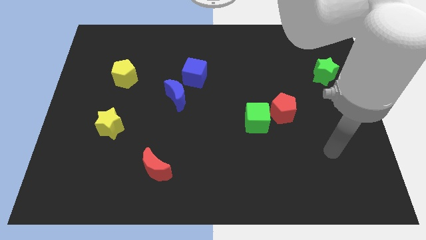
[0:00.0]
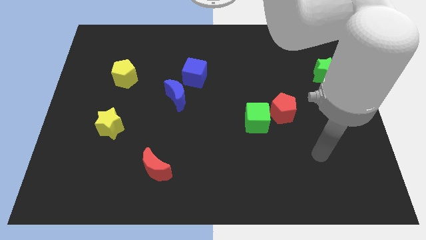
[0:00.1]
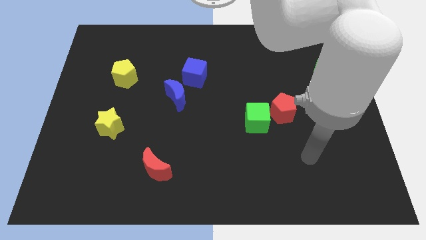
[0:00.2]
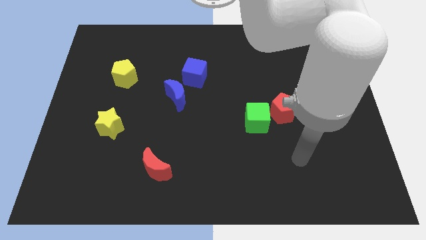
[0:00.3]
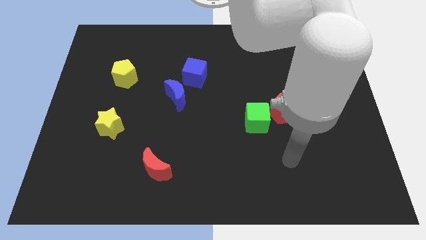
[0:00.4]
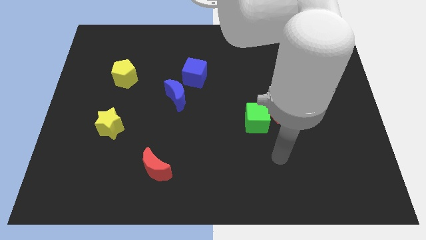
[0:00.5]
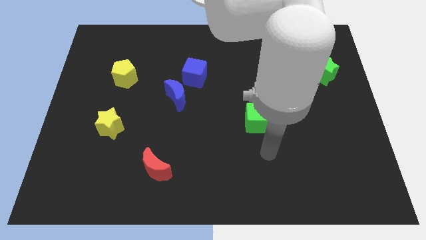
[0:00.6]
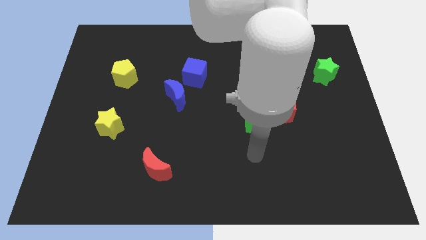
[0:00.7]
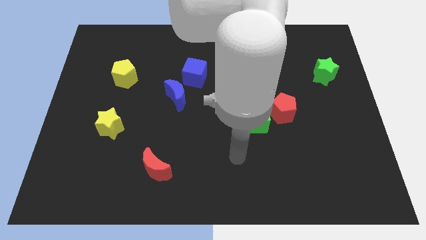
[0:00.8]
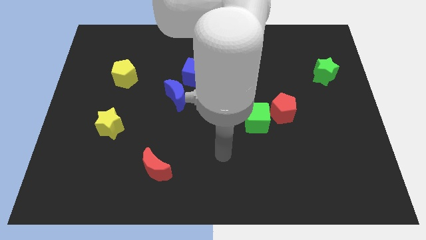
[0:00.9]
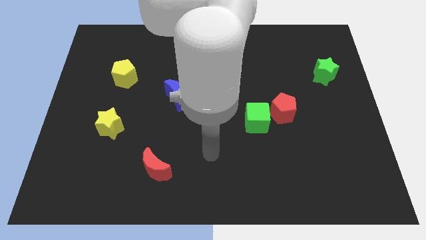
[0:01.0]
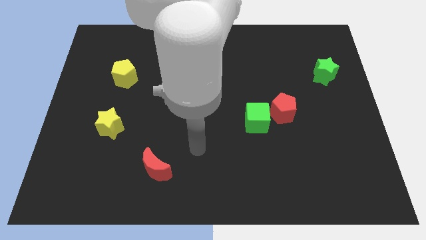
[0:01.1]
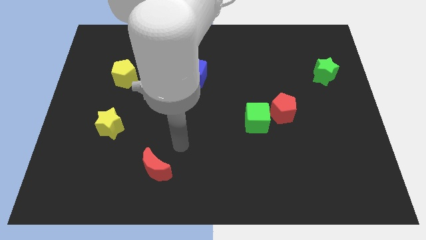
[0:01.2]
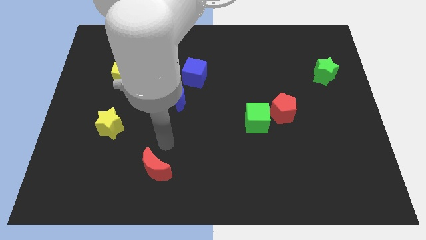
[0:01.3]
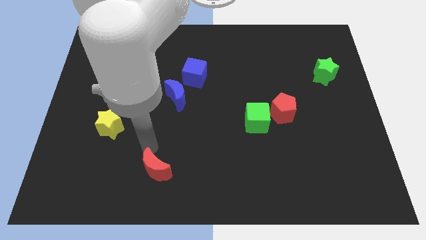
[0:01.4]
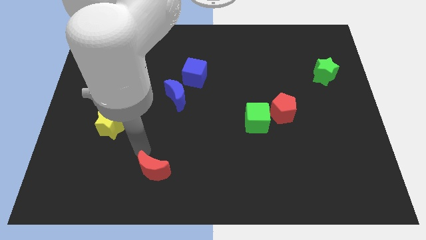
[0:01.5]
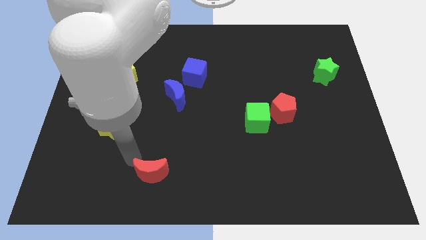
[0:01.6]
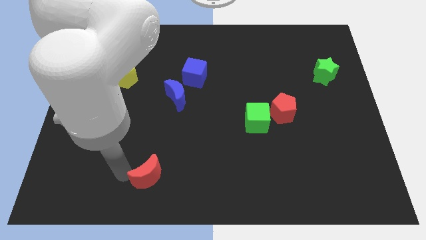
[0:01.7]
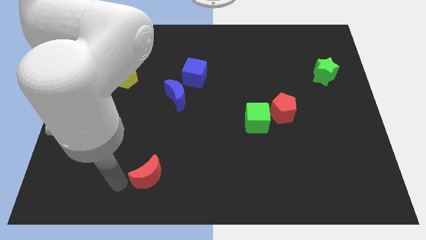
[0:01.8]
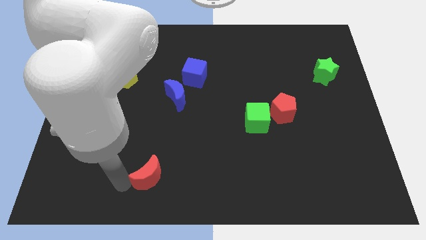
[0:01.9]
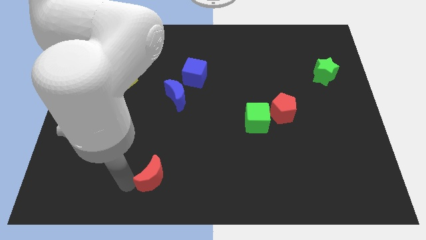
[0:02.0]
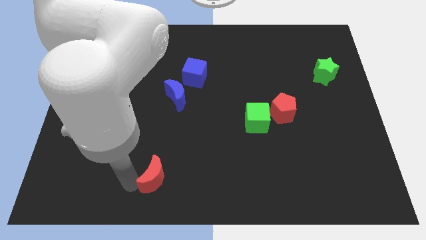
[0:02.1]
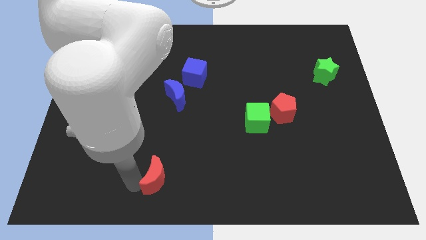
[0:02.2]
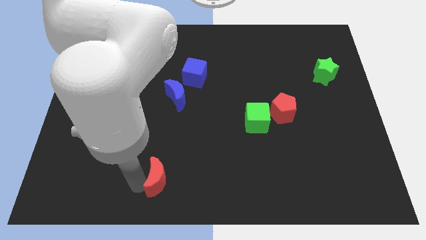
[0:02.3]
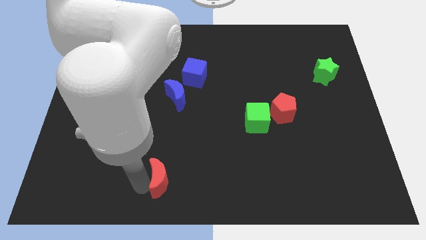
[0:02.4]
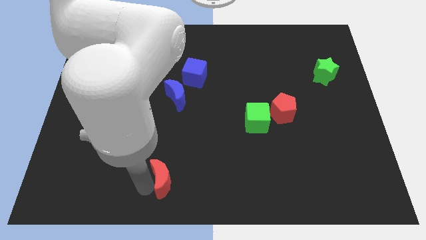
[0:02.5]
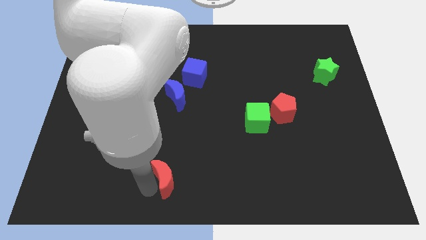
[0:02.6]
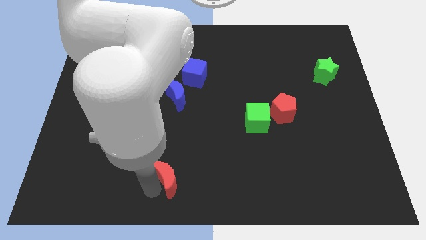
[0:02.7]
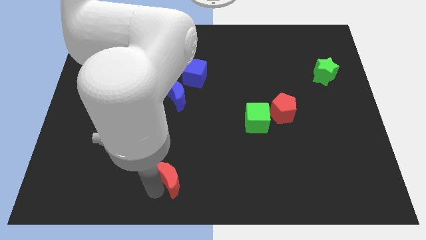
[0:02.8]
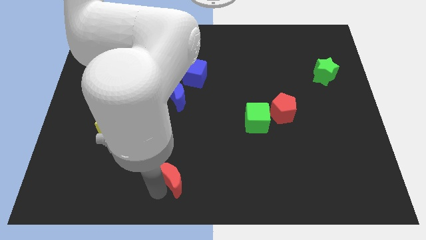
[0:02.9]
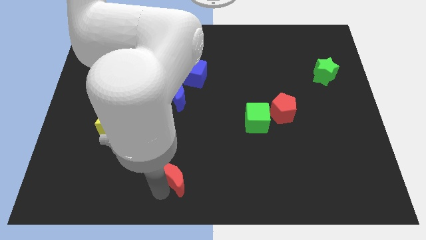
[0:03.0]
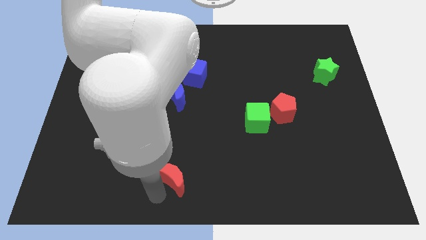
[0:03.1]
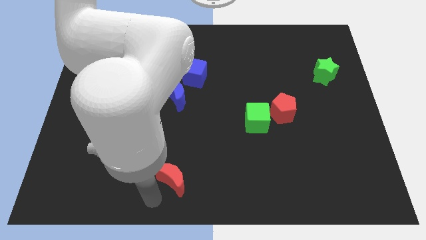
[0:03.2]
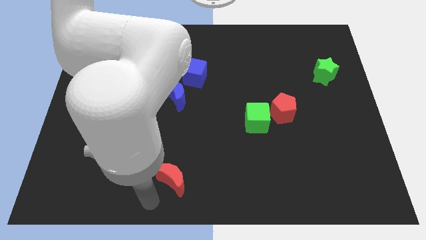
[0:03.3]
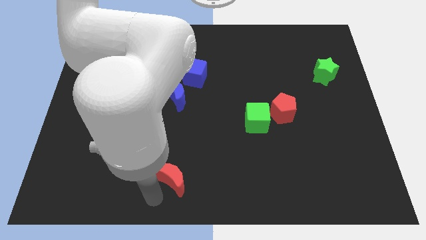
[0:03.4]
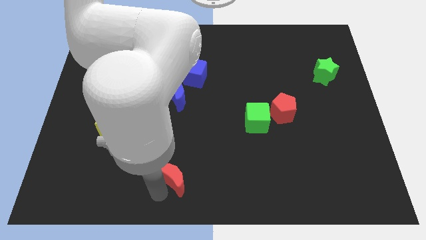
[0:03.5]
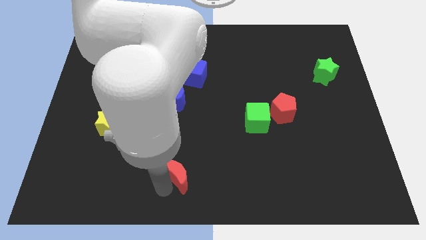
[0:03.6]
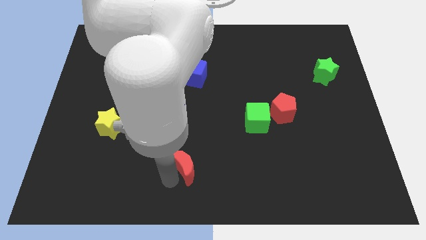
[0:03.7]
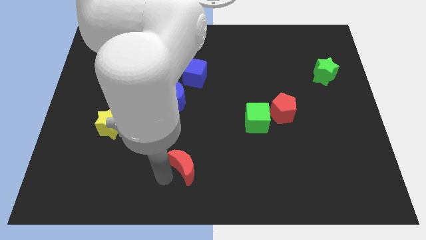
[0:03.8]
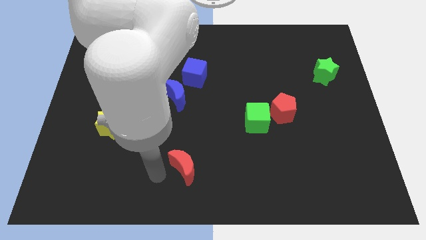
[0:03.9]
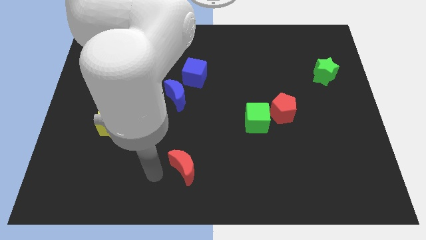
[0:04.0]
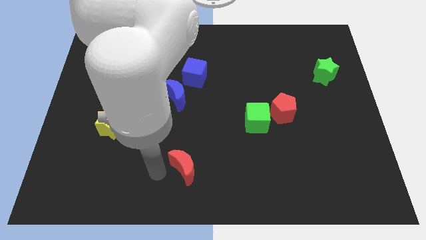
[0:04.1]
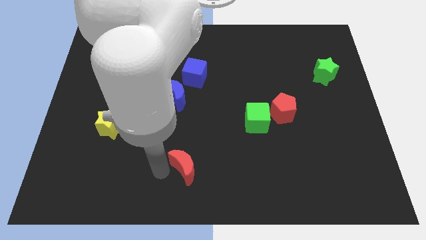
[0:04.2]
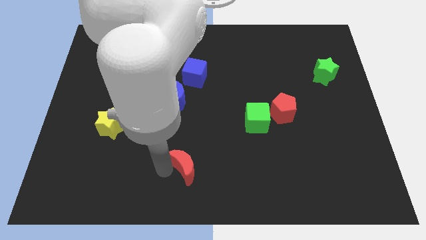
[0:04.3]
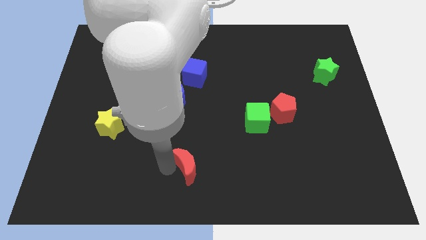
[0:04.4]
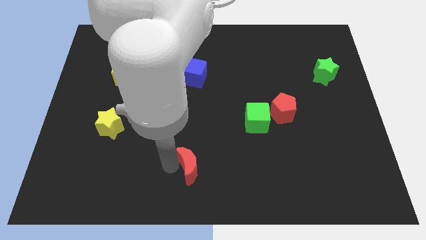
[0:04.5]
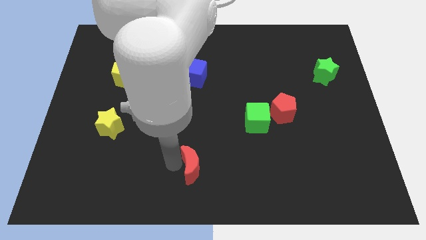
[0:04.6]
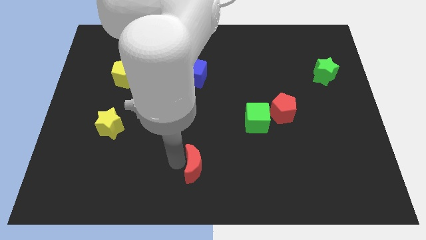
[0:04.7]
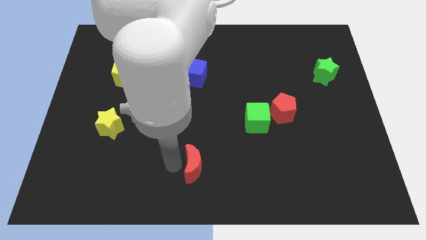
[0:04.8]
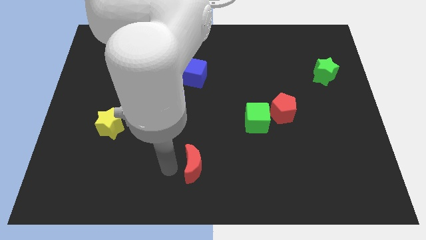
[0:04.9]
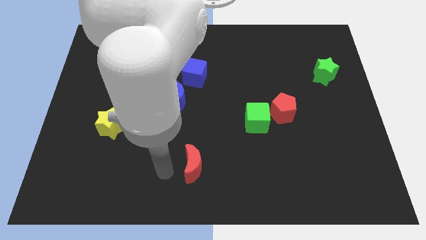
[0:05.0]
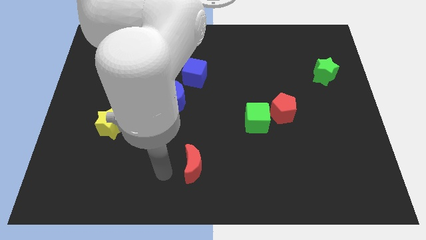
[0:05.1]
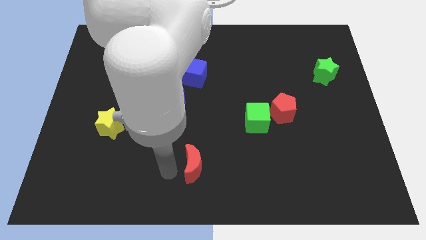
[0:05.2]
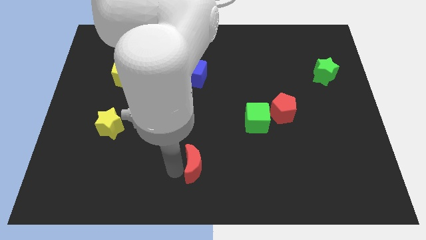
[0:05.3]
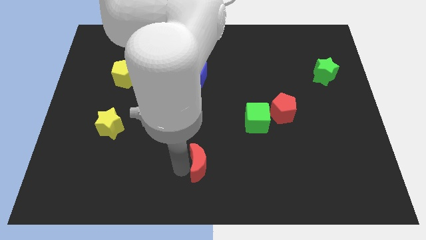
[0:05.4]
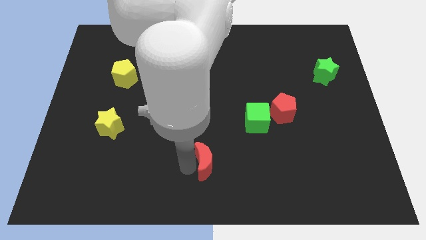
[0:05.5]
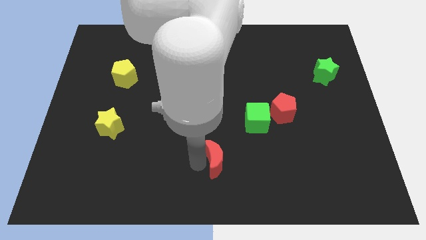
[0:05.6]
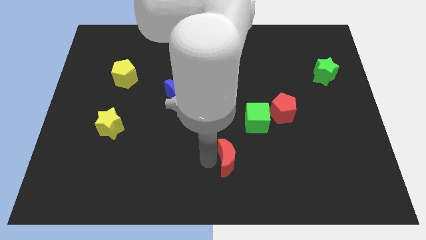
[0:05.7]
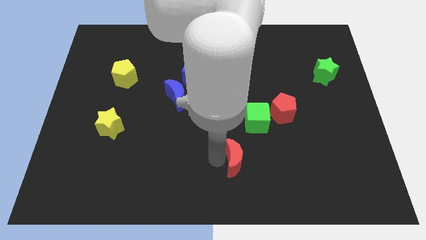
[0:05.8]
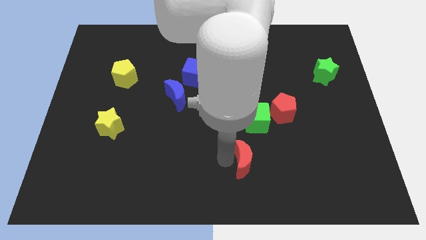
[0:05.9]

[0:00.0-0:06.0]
slide the red moon below the green cube

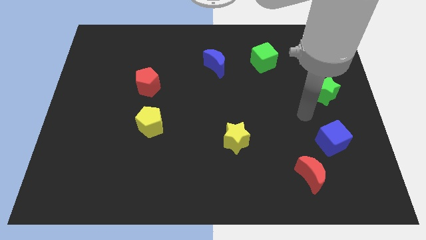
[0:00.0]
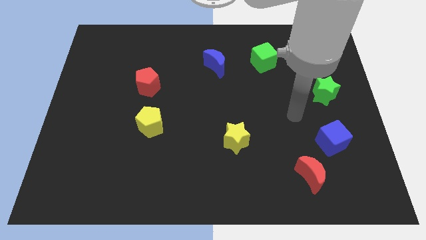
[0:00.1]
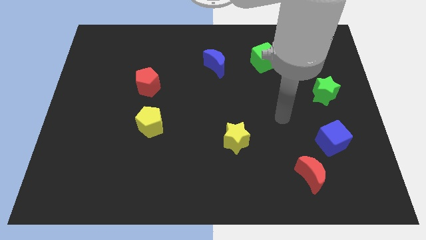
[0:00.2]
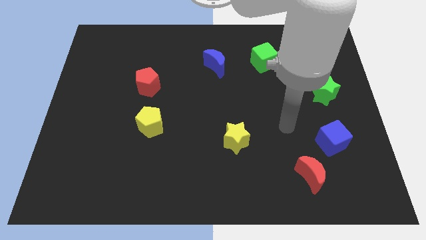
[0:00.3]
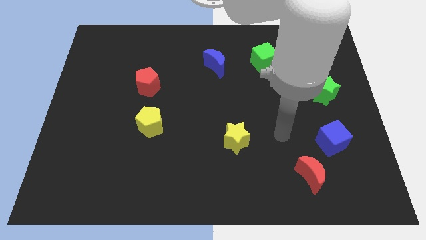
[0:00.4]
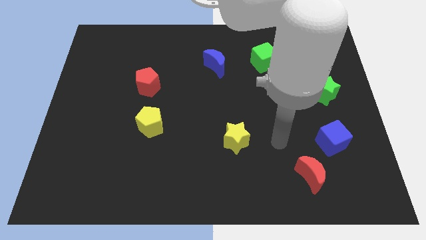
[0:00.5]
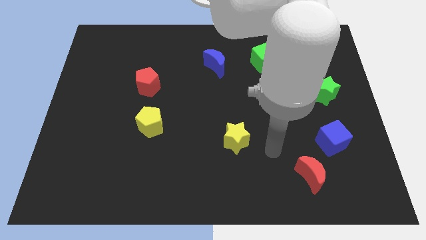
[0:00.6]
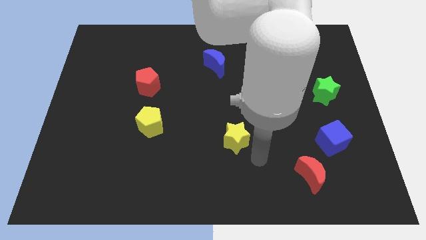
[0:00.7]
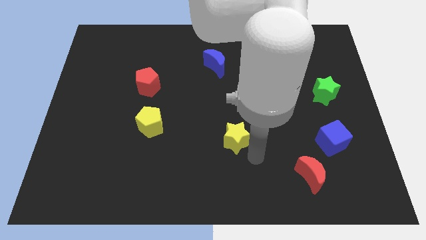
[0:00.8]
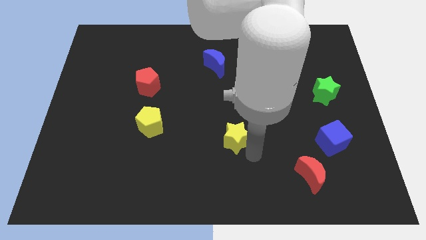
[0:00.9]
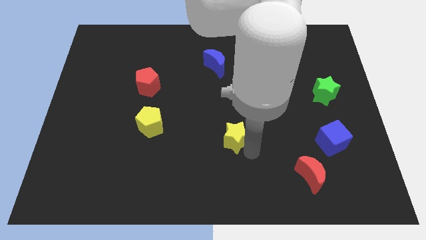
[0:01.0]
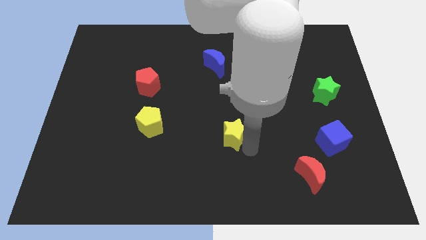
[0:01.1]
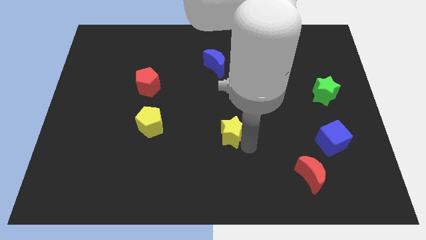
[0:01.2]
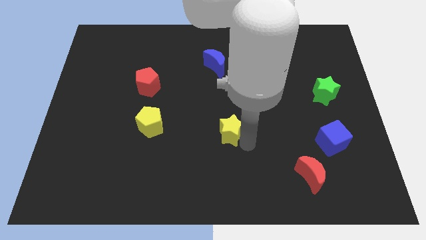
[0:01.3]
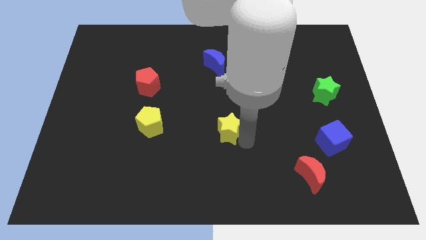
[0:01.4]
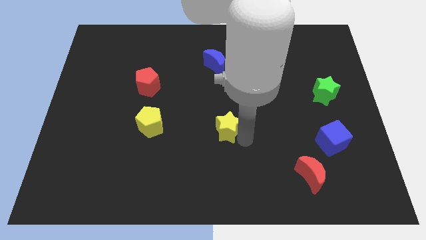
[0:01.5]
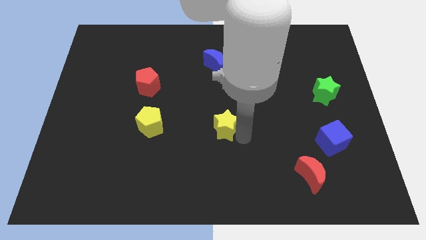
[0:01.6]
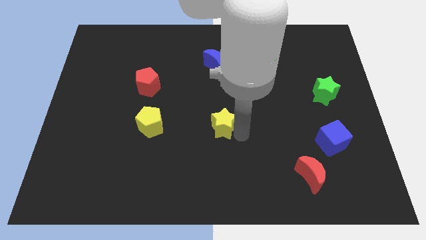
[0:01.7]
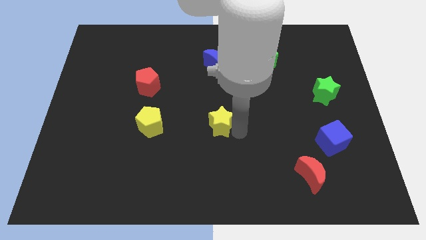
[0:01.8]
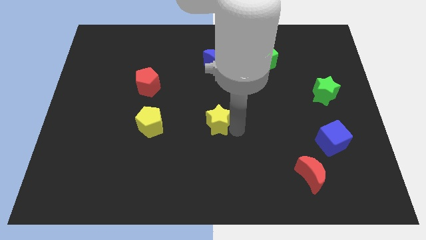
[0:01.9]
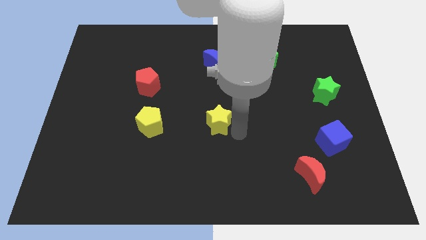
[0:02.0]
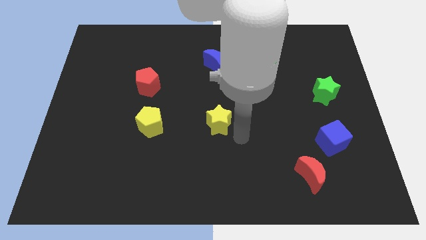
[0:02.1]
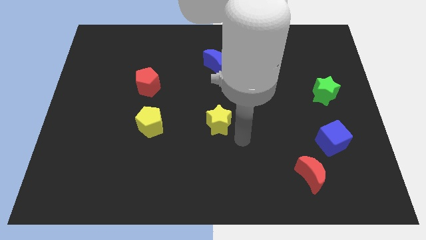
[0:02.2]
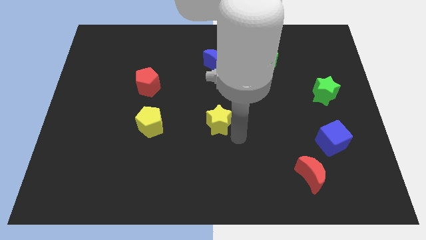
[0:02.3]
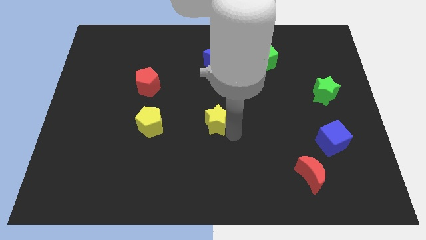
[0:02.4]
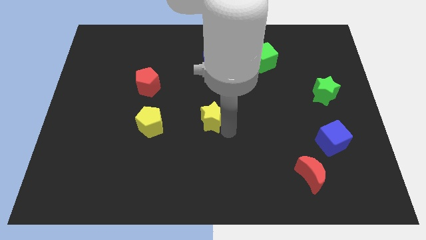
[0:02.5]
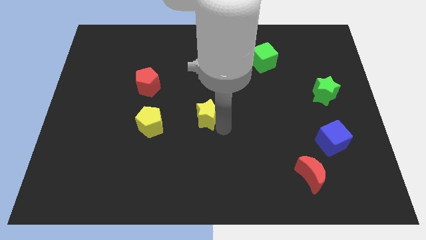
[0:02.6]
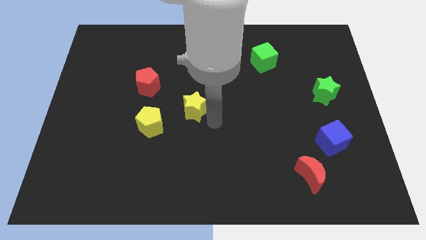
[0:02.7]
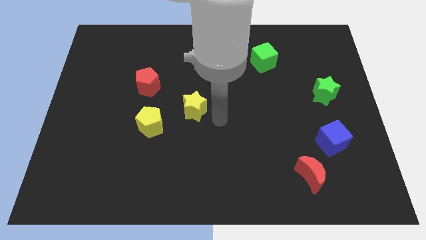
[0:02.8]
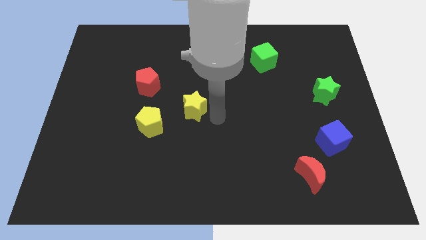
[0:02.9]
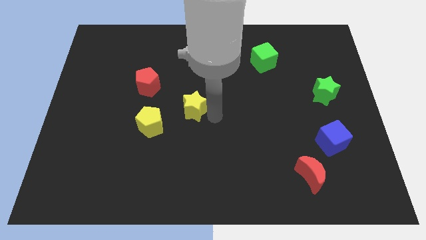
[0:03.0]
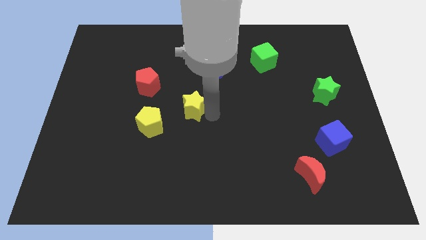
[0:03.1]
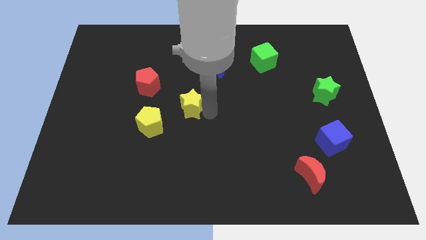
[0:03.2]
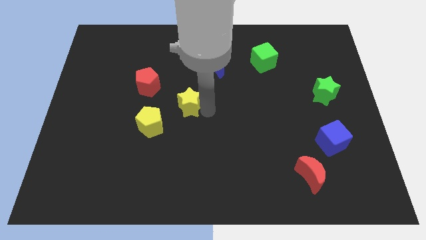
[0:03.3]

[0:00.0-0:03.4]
move the yellow star diagonally down and to the right of the red pentagon
